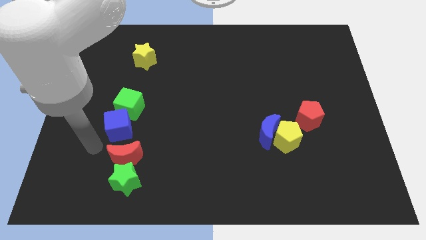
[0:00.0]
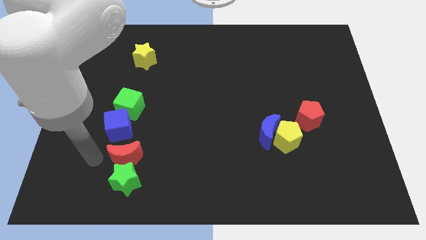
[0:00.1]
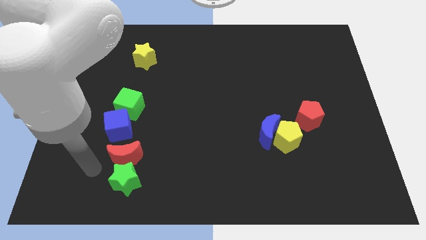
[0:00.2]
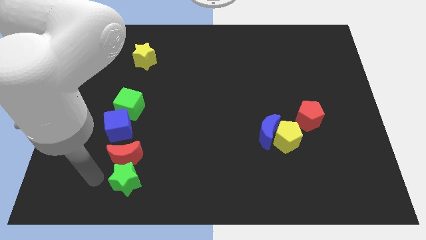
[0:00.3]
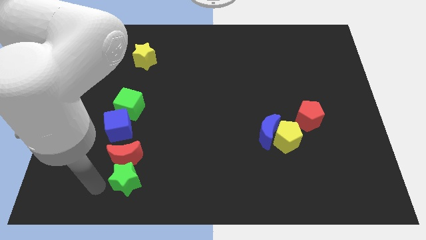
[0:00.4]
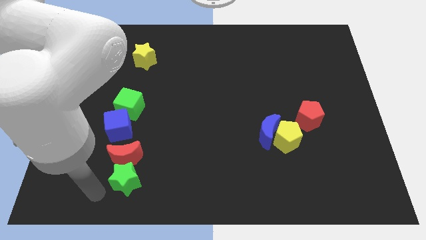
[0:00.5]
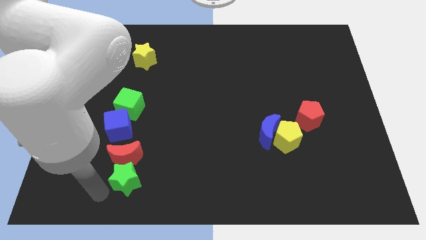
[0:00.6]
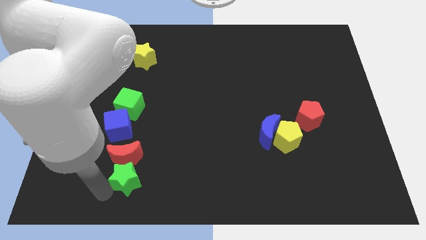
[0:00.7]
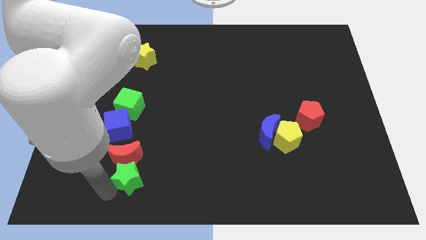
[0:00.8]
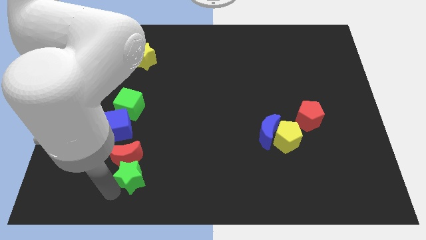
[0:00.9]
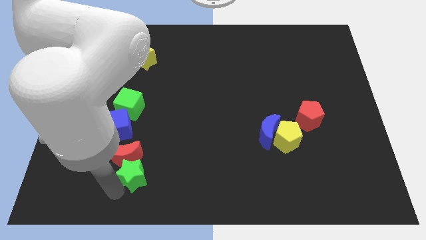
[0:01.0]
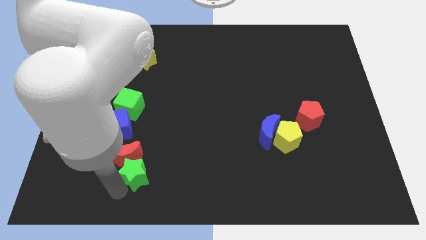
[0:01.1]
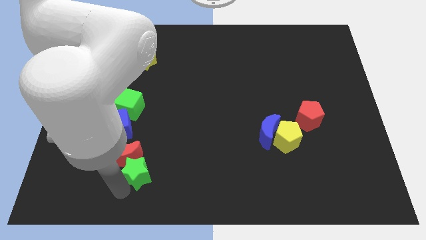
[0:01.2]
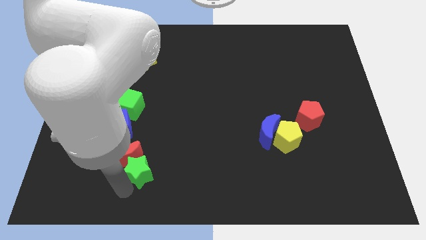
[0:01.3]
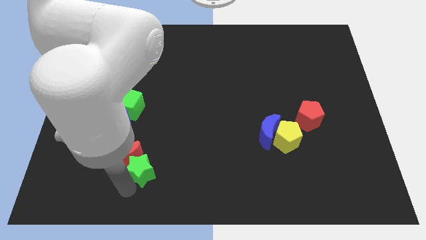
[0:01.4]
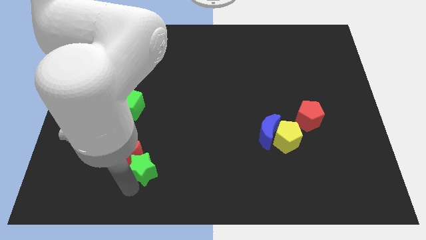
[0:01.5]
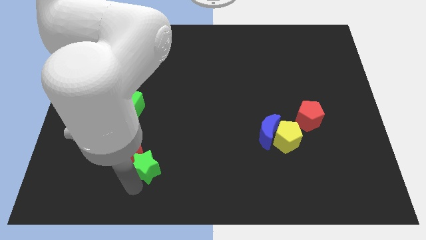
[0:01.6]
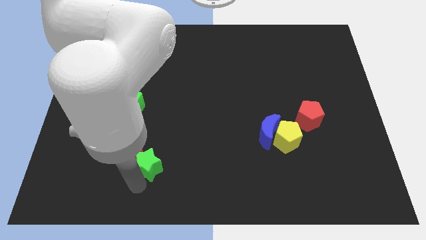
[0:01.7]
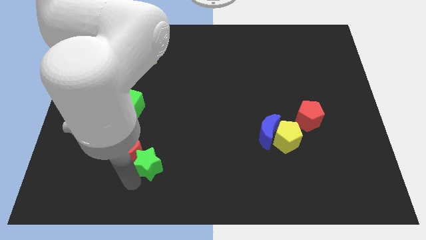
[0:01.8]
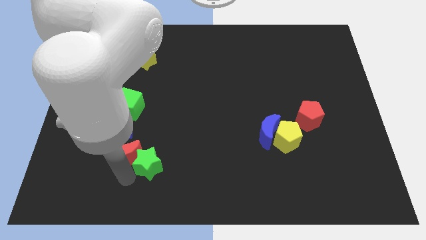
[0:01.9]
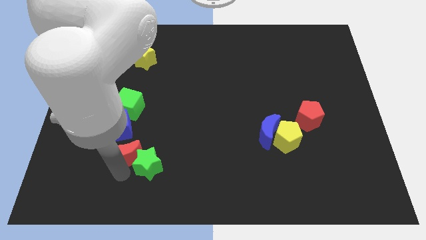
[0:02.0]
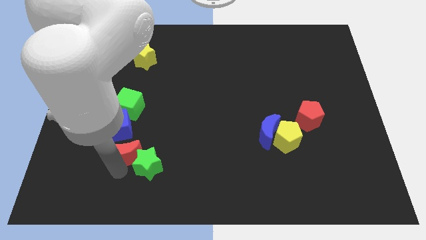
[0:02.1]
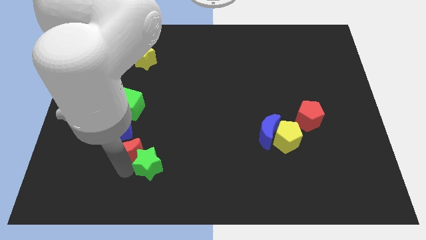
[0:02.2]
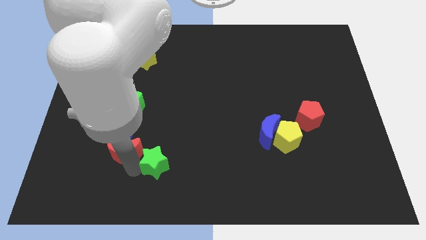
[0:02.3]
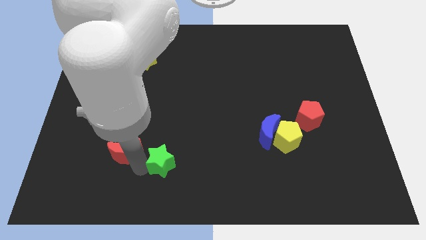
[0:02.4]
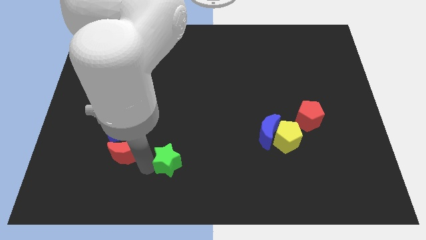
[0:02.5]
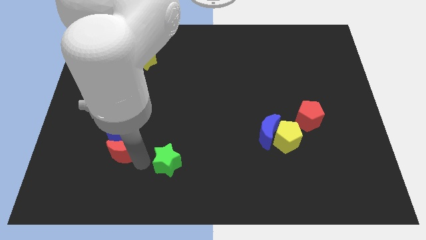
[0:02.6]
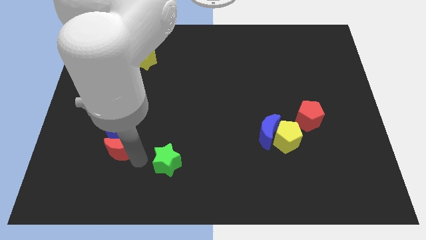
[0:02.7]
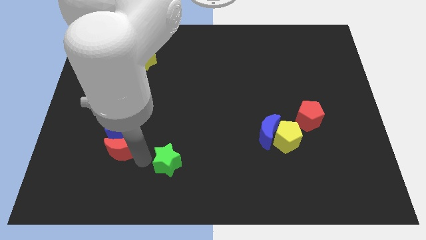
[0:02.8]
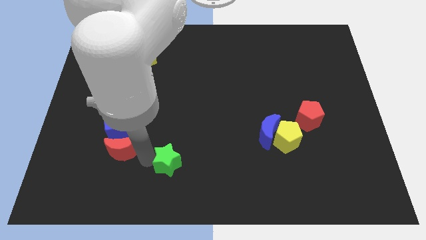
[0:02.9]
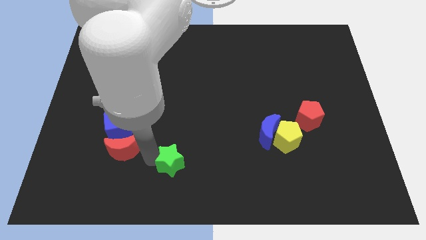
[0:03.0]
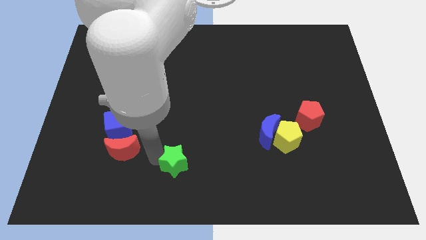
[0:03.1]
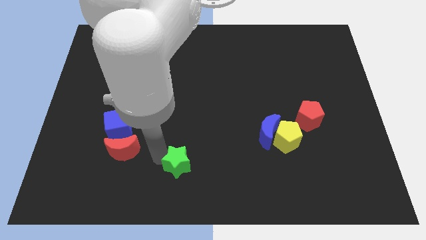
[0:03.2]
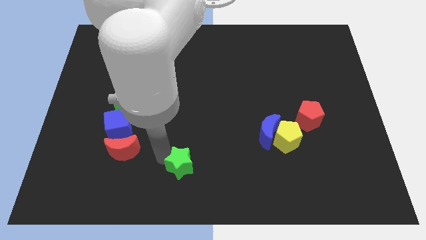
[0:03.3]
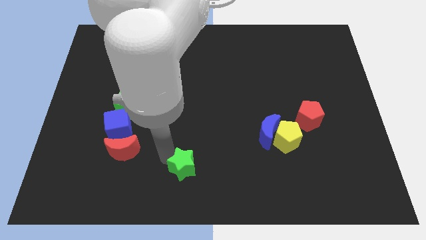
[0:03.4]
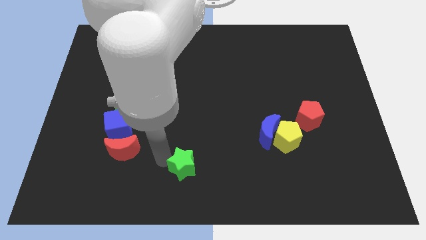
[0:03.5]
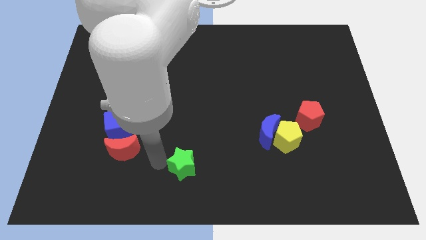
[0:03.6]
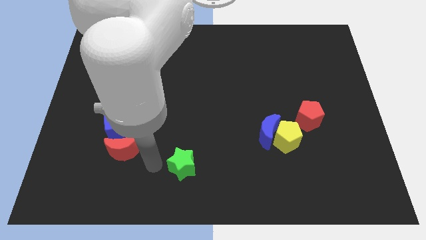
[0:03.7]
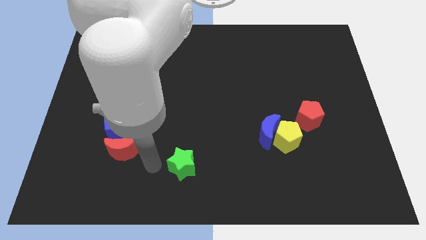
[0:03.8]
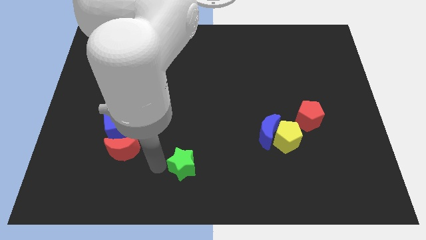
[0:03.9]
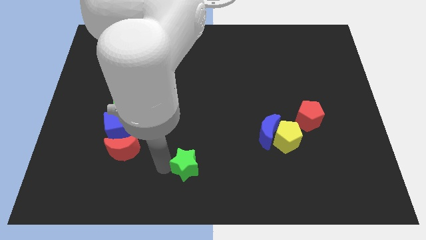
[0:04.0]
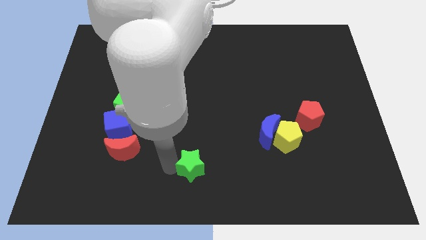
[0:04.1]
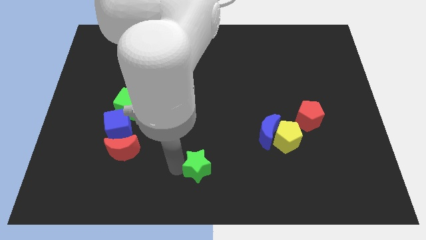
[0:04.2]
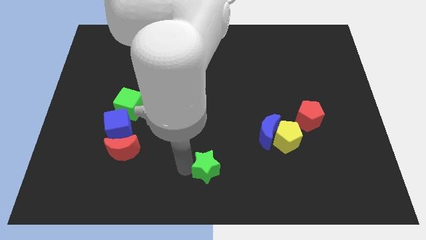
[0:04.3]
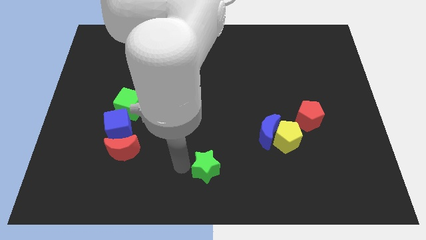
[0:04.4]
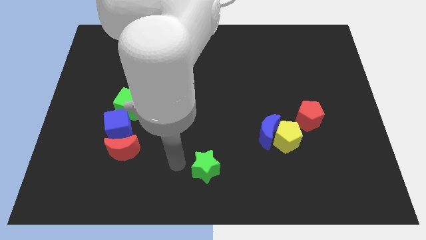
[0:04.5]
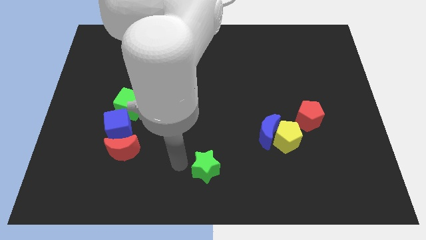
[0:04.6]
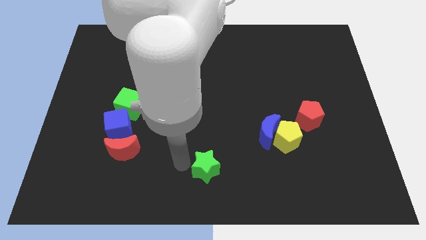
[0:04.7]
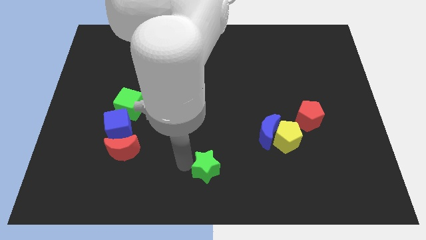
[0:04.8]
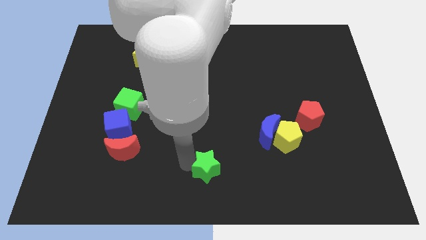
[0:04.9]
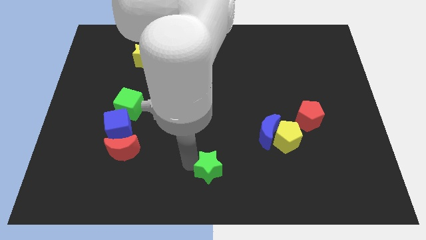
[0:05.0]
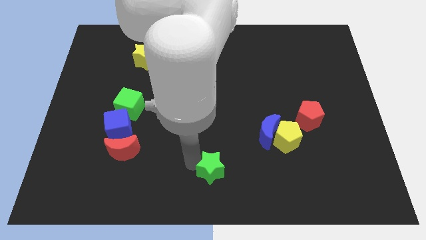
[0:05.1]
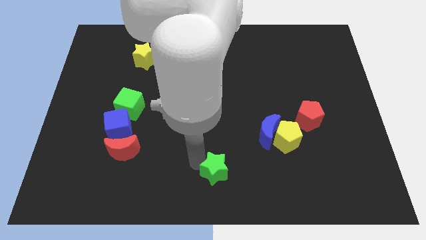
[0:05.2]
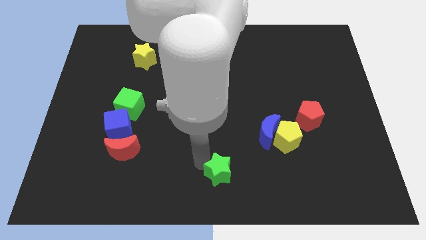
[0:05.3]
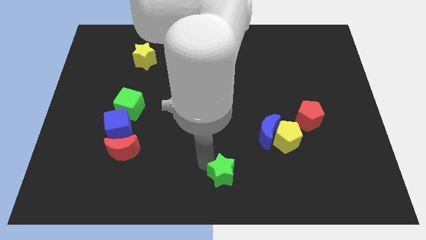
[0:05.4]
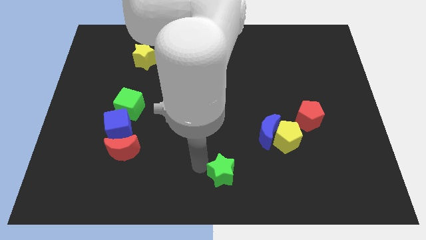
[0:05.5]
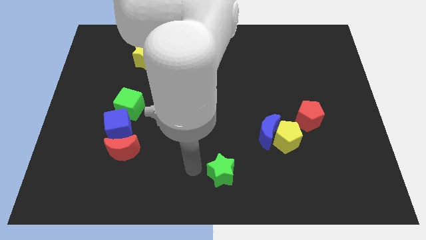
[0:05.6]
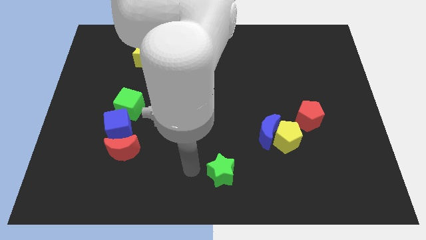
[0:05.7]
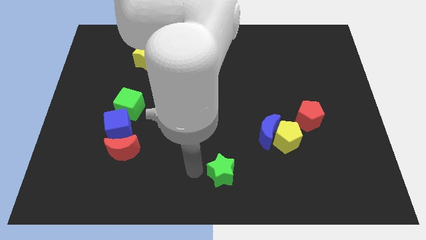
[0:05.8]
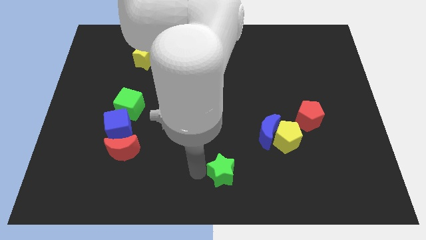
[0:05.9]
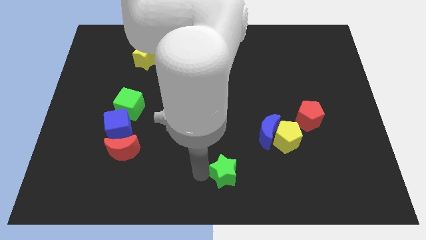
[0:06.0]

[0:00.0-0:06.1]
slide the green star to the right

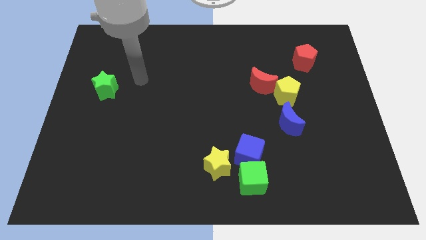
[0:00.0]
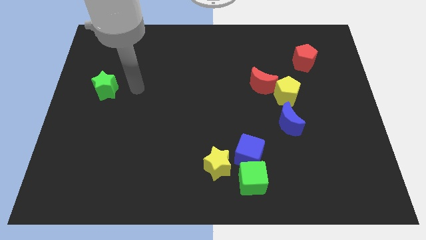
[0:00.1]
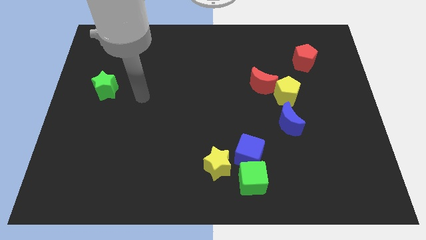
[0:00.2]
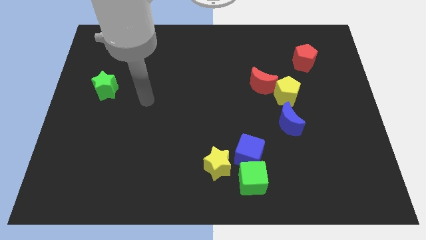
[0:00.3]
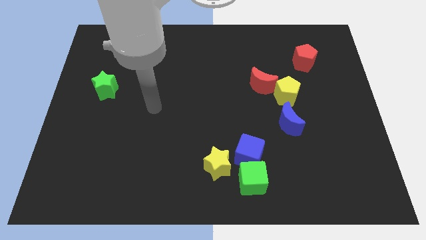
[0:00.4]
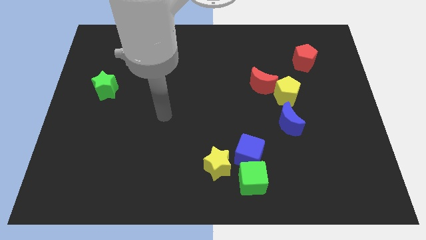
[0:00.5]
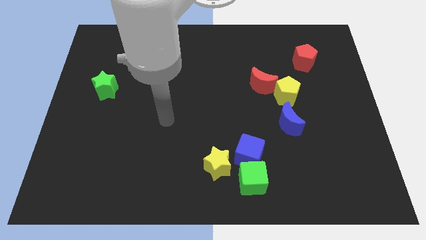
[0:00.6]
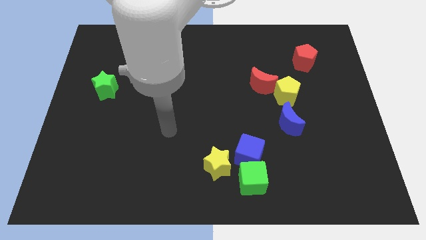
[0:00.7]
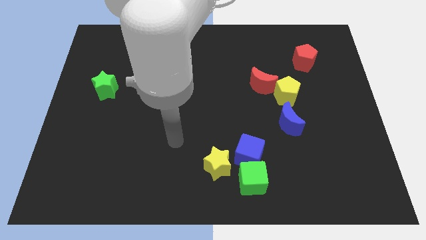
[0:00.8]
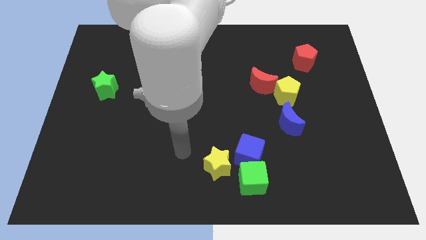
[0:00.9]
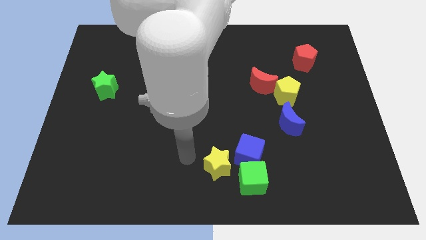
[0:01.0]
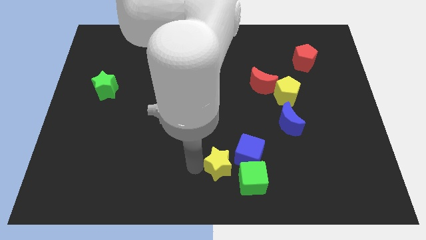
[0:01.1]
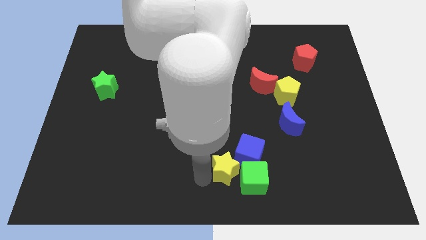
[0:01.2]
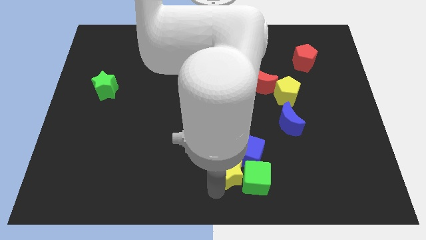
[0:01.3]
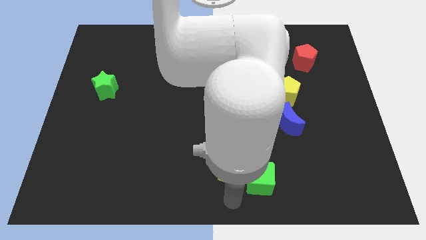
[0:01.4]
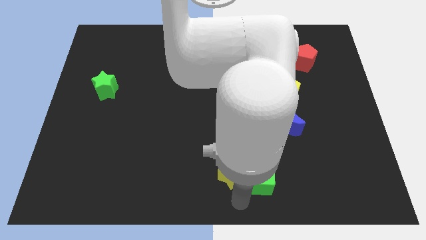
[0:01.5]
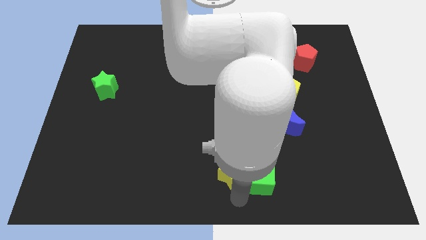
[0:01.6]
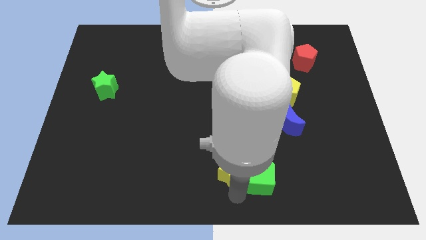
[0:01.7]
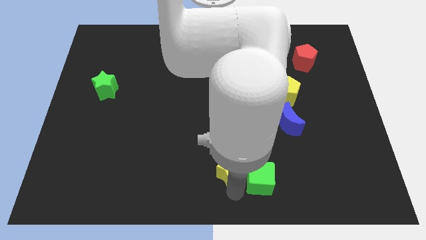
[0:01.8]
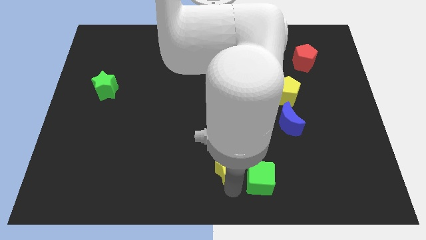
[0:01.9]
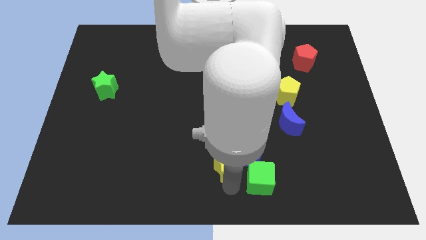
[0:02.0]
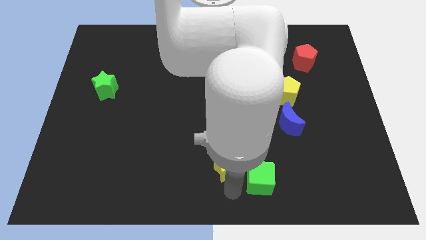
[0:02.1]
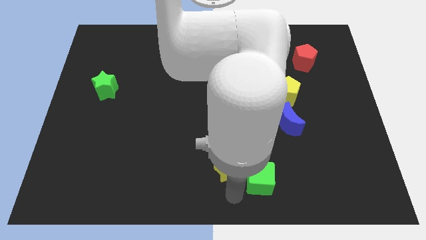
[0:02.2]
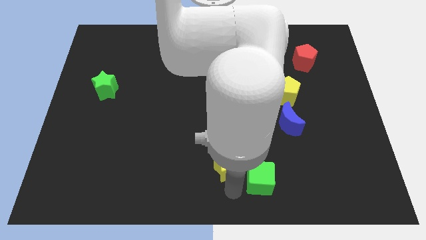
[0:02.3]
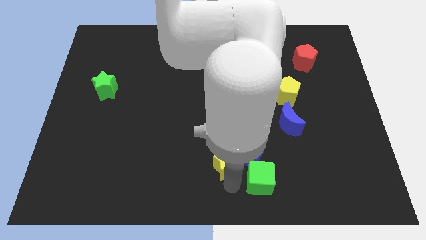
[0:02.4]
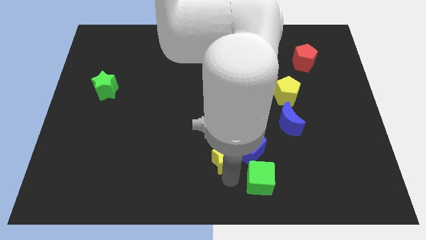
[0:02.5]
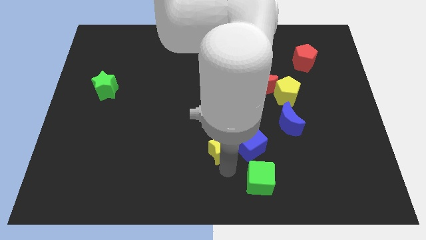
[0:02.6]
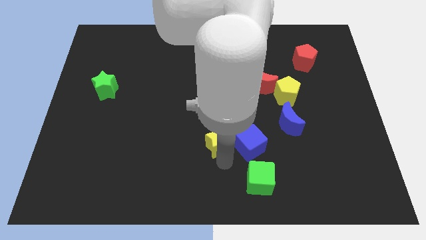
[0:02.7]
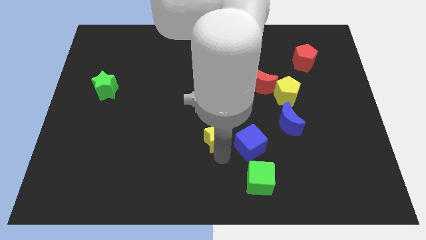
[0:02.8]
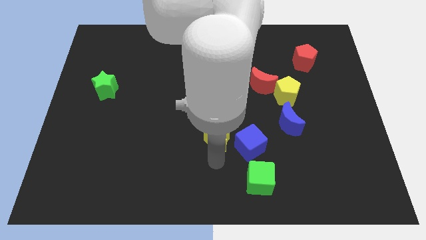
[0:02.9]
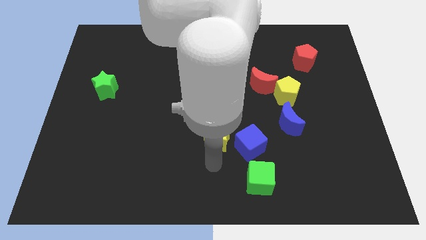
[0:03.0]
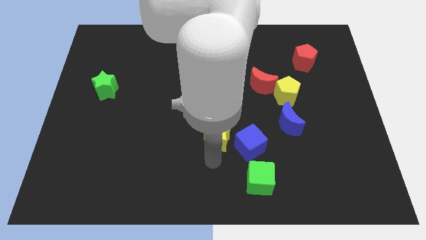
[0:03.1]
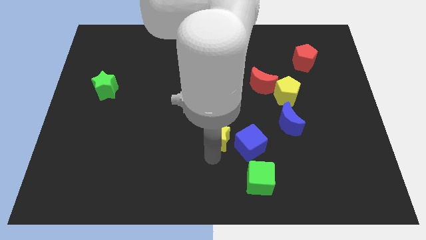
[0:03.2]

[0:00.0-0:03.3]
slide the yellow star a bit up
